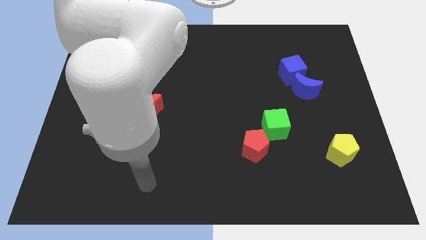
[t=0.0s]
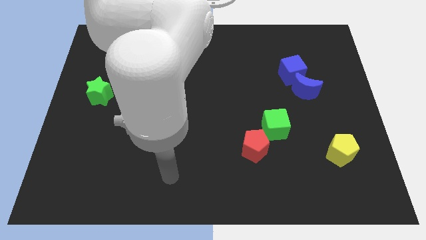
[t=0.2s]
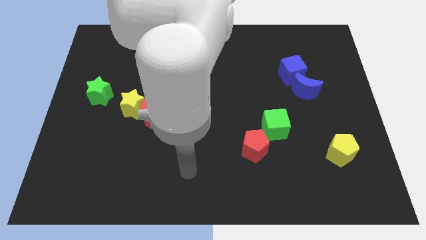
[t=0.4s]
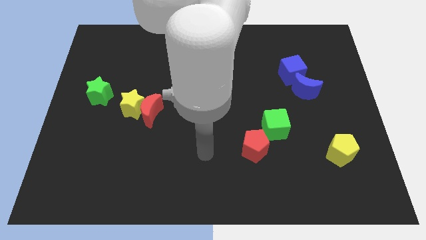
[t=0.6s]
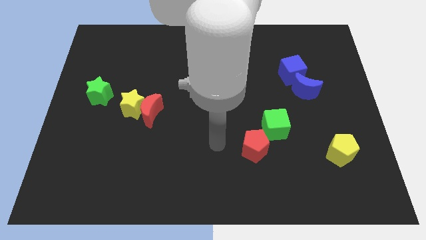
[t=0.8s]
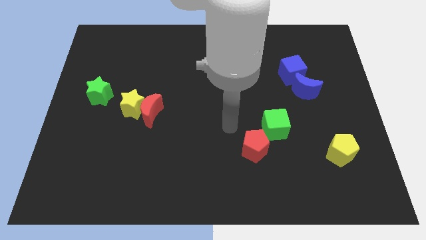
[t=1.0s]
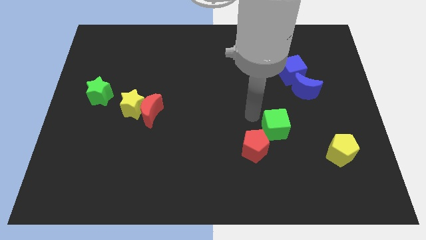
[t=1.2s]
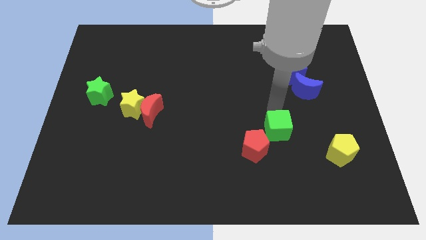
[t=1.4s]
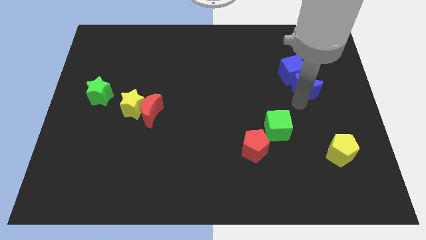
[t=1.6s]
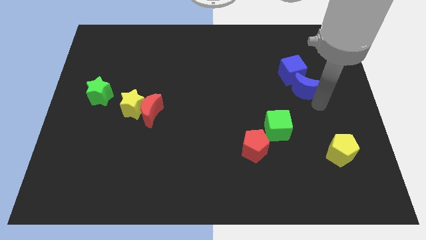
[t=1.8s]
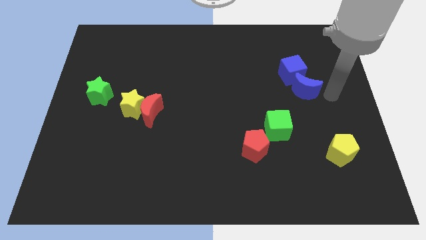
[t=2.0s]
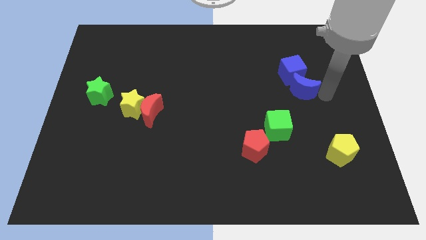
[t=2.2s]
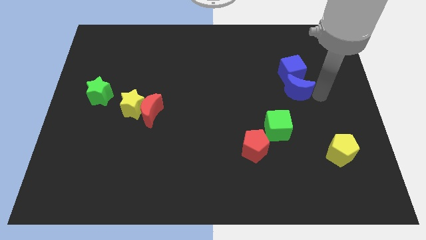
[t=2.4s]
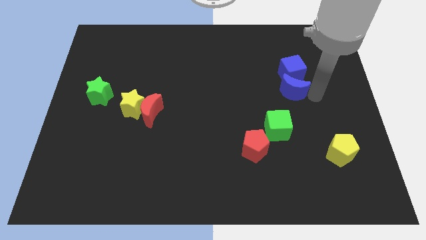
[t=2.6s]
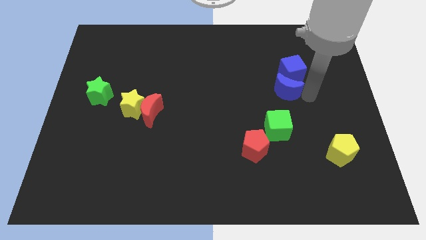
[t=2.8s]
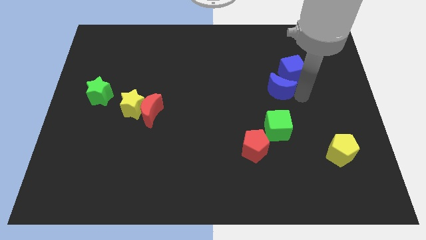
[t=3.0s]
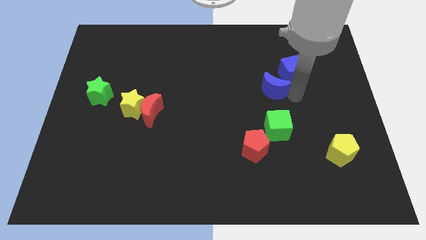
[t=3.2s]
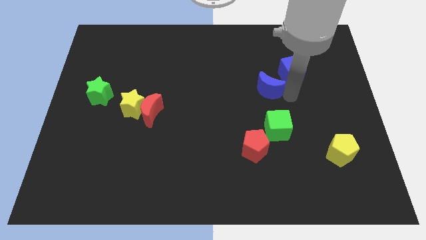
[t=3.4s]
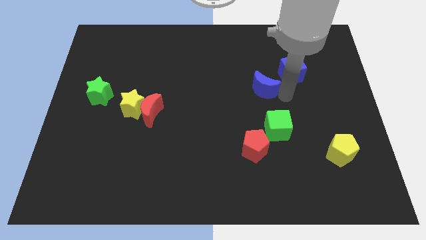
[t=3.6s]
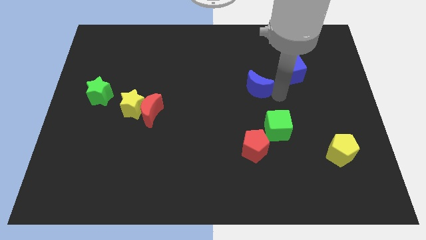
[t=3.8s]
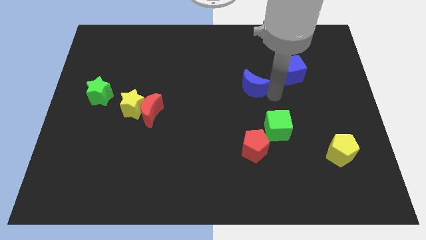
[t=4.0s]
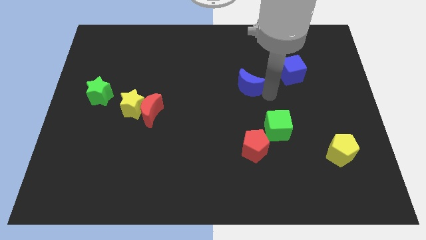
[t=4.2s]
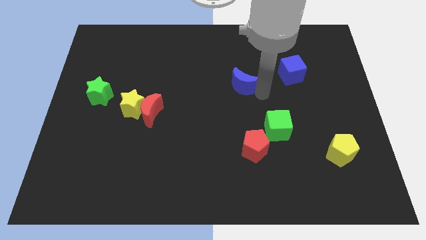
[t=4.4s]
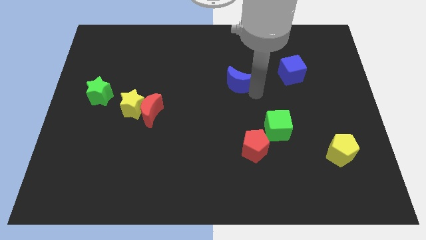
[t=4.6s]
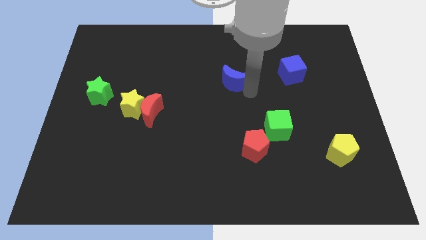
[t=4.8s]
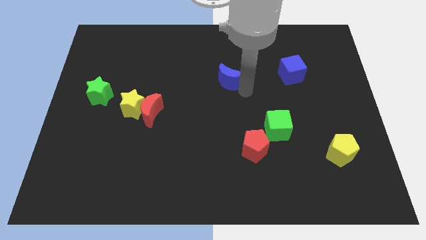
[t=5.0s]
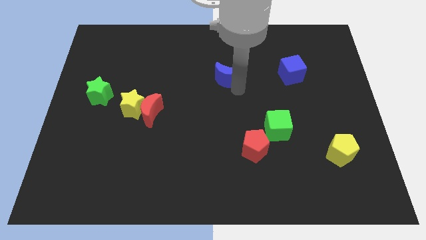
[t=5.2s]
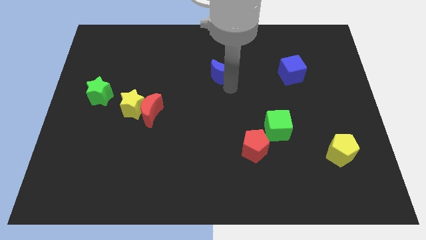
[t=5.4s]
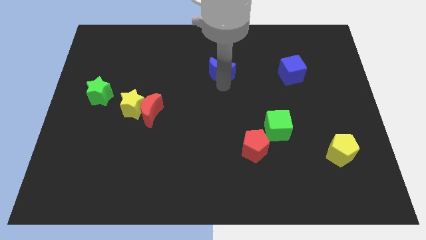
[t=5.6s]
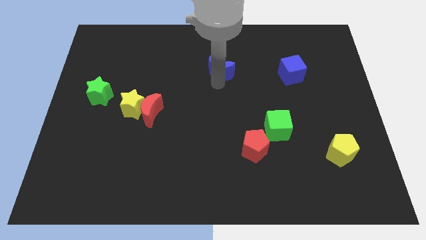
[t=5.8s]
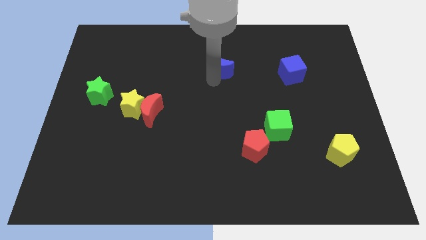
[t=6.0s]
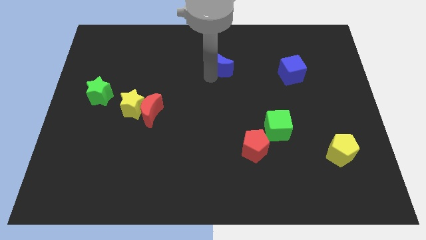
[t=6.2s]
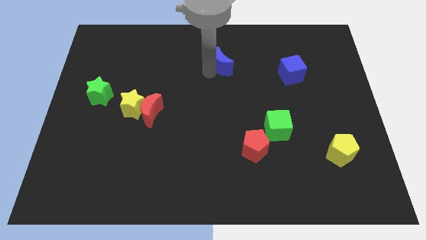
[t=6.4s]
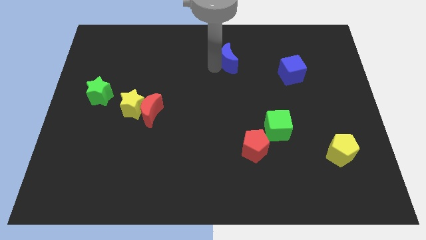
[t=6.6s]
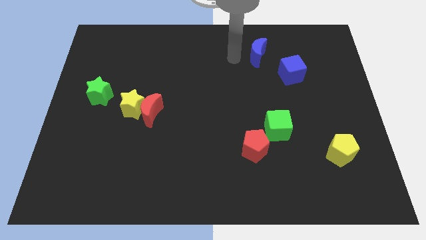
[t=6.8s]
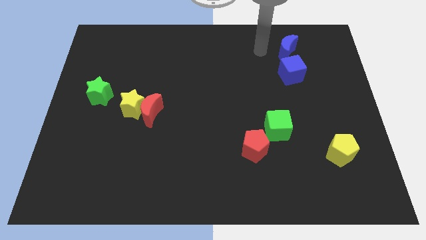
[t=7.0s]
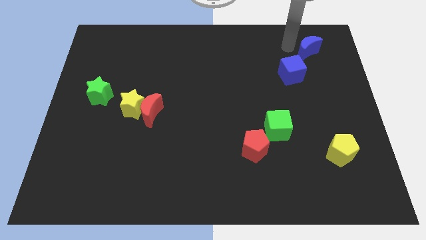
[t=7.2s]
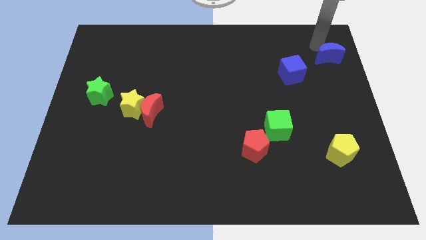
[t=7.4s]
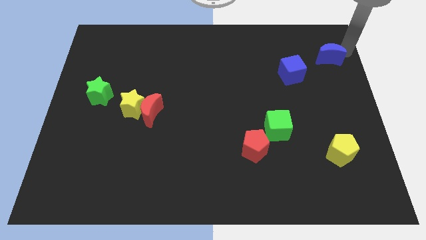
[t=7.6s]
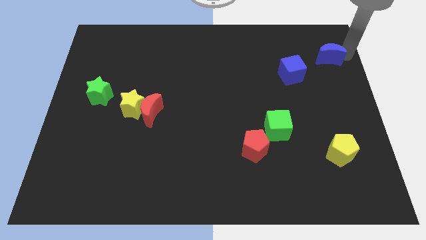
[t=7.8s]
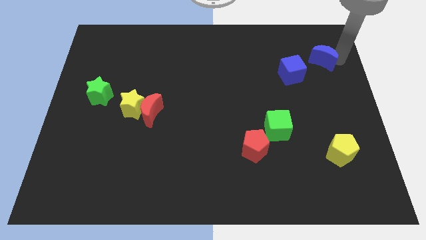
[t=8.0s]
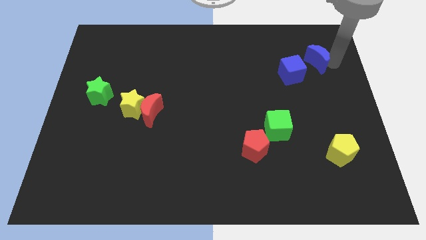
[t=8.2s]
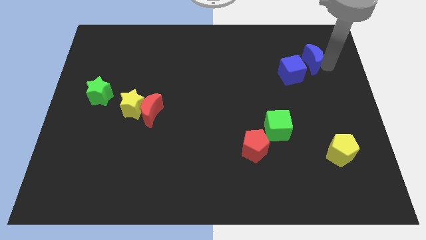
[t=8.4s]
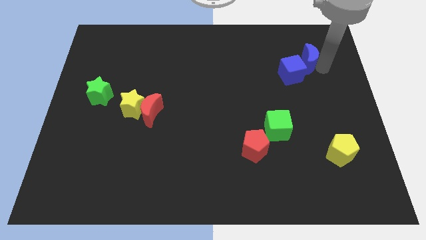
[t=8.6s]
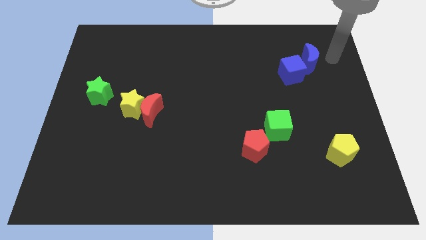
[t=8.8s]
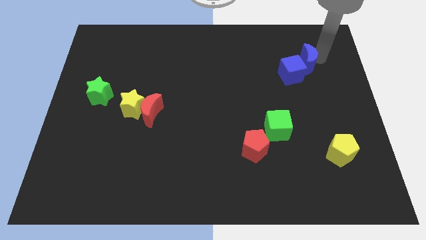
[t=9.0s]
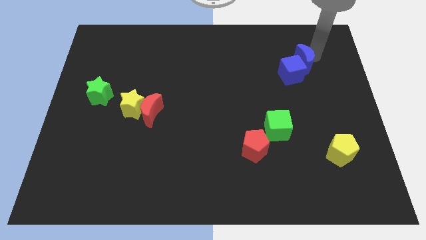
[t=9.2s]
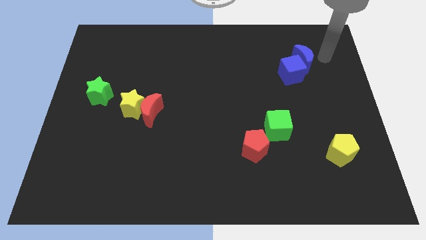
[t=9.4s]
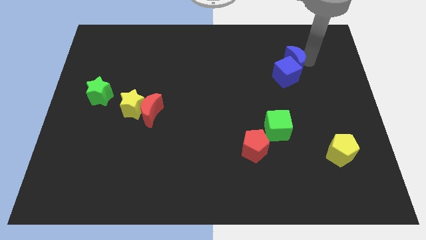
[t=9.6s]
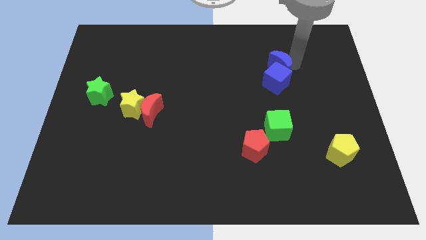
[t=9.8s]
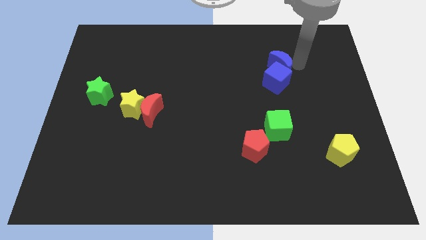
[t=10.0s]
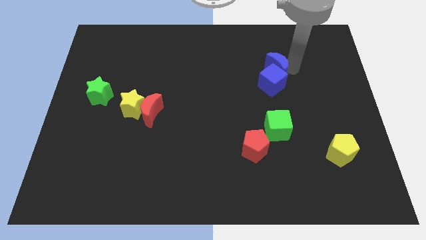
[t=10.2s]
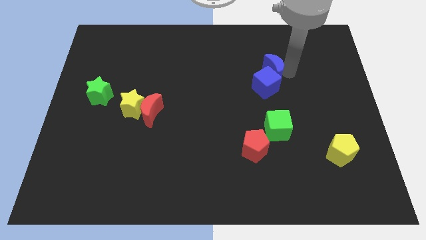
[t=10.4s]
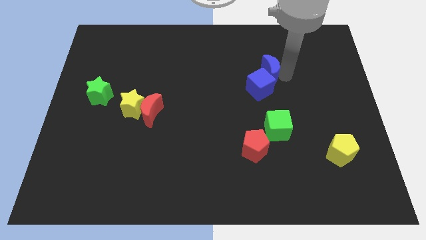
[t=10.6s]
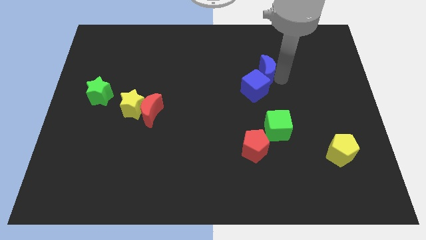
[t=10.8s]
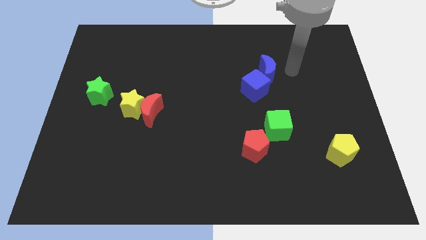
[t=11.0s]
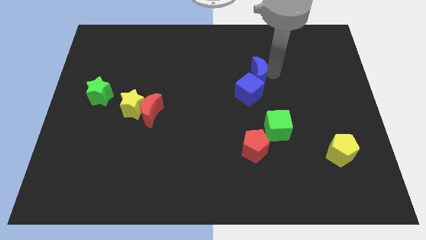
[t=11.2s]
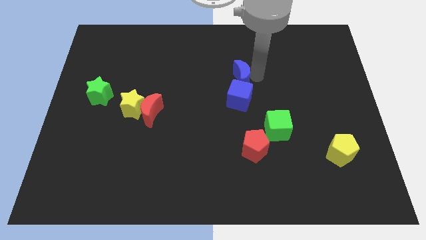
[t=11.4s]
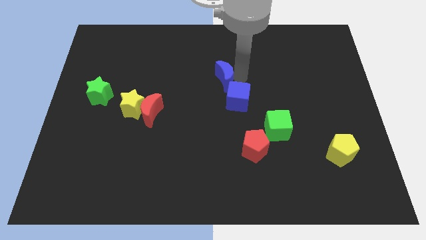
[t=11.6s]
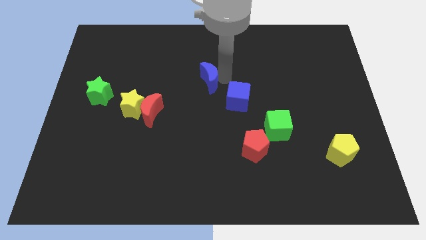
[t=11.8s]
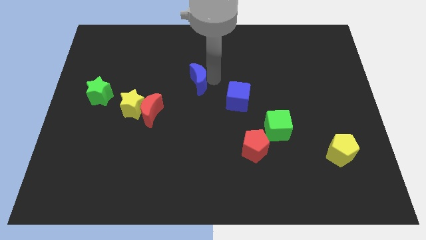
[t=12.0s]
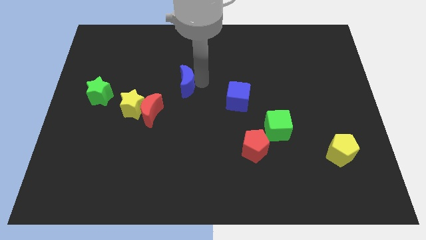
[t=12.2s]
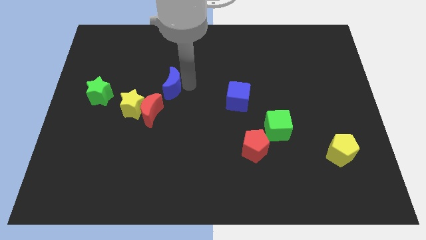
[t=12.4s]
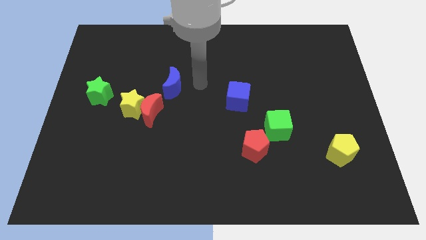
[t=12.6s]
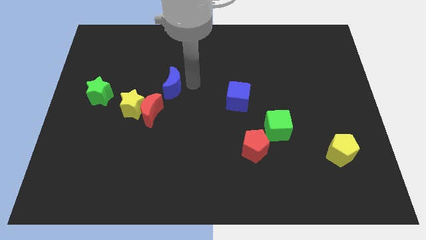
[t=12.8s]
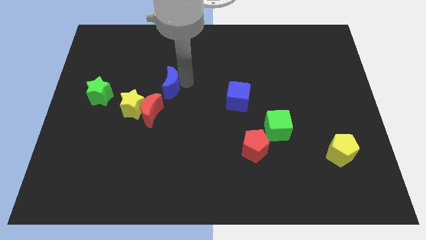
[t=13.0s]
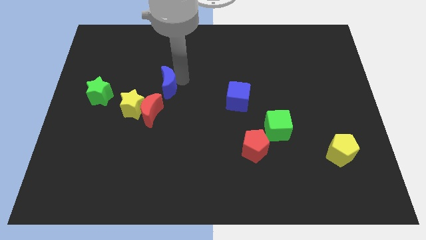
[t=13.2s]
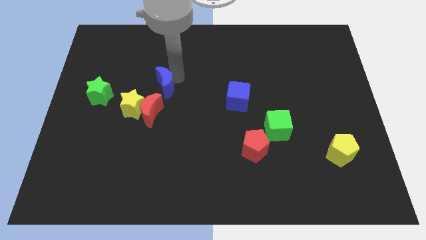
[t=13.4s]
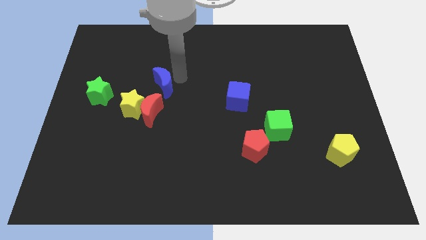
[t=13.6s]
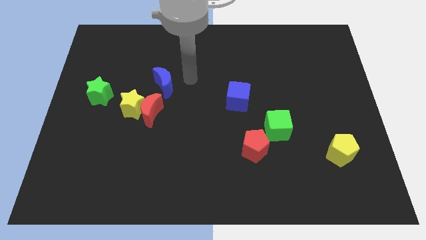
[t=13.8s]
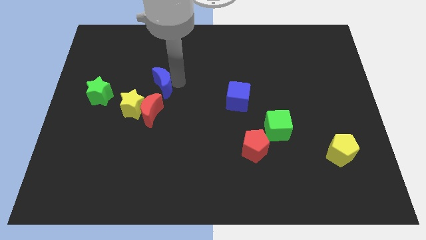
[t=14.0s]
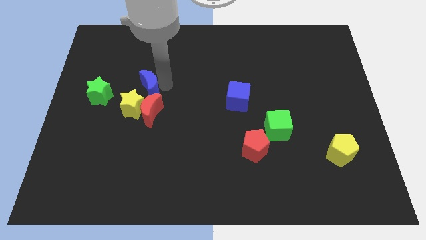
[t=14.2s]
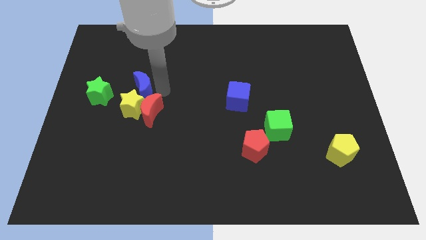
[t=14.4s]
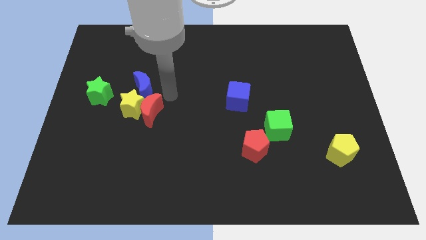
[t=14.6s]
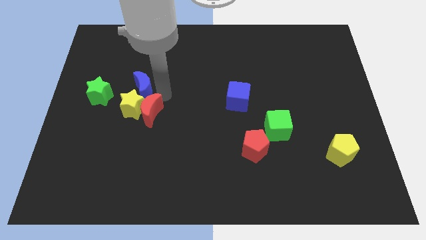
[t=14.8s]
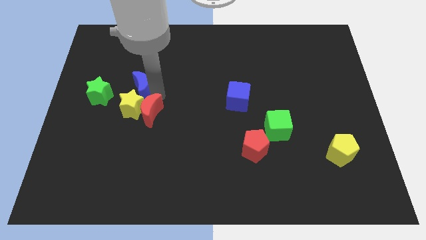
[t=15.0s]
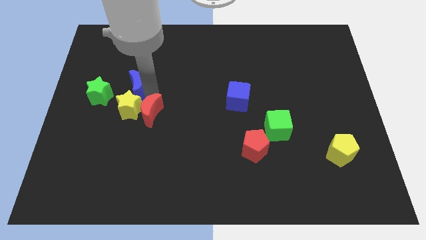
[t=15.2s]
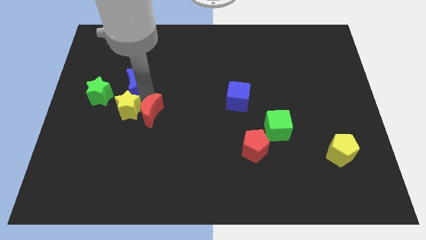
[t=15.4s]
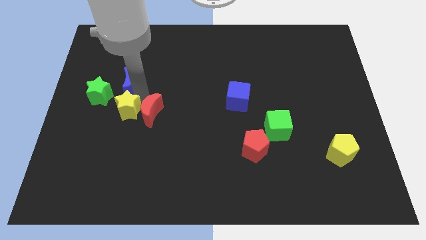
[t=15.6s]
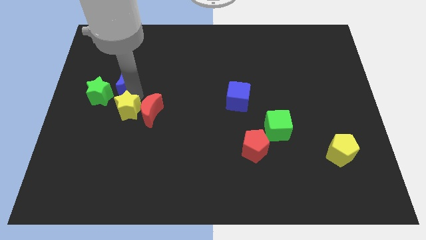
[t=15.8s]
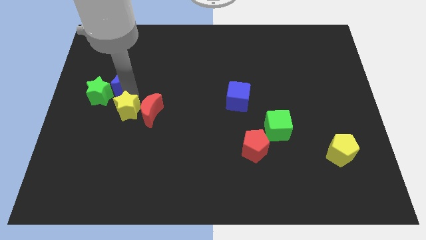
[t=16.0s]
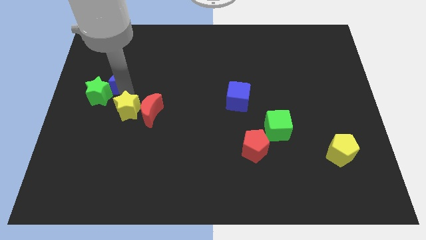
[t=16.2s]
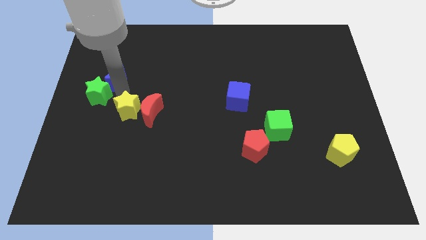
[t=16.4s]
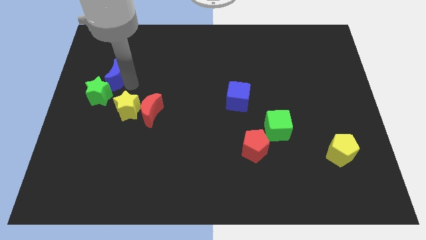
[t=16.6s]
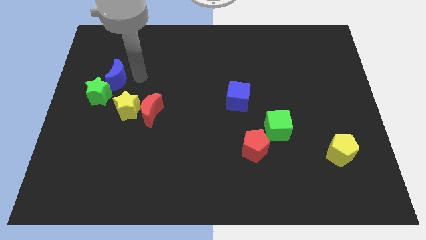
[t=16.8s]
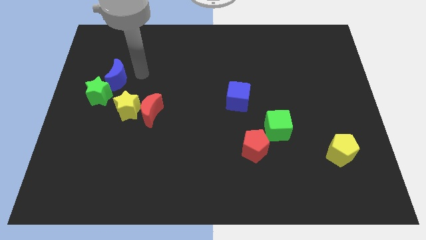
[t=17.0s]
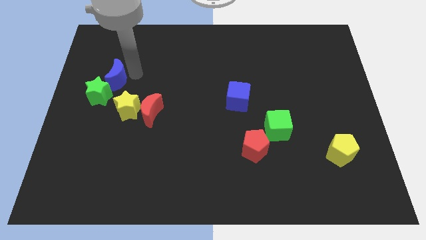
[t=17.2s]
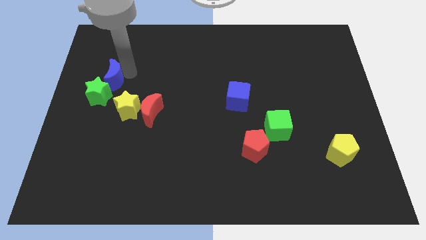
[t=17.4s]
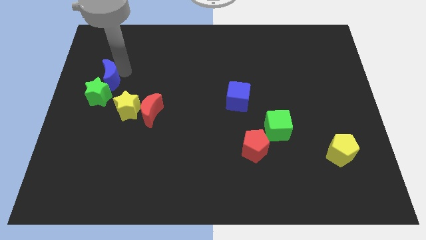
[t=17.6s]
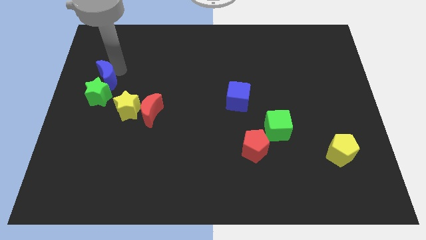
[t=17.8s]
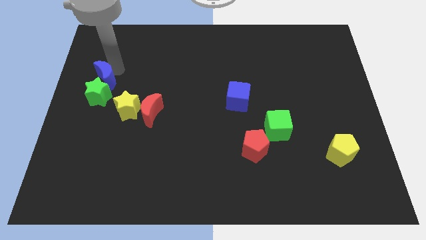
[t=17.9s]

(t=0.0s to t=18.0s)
slide the blue moon to the left side of the board
